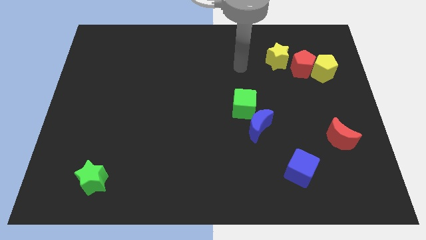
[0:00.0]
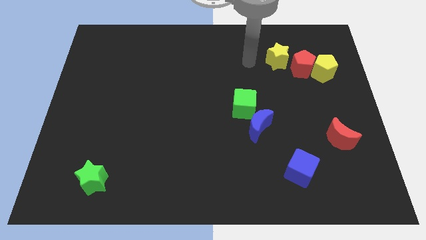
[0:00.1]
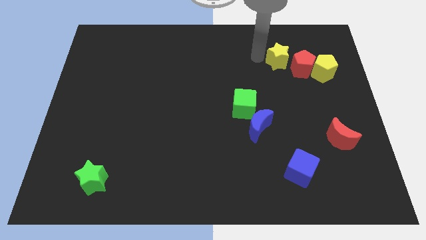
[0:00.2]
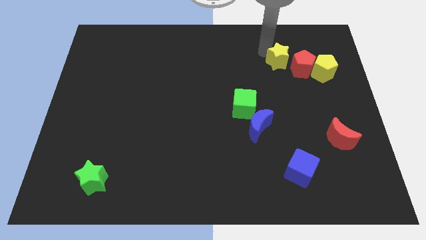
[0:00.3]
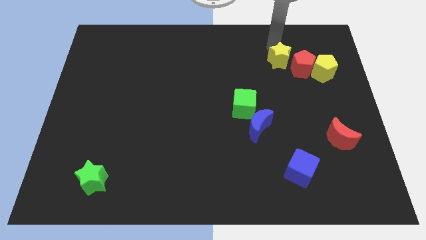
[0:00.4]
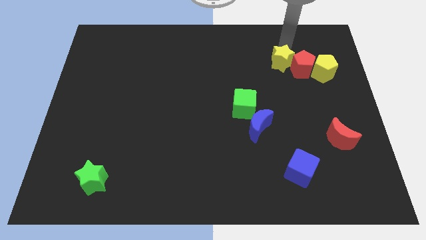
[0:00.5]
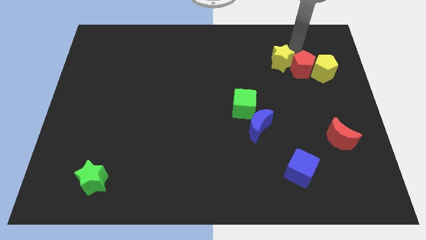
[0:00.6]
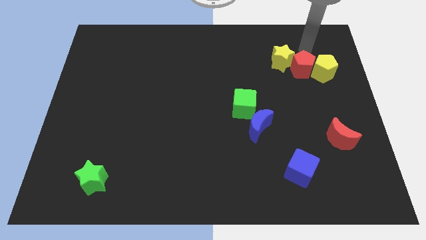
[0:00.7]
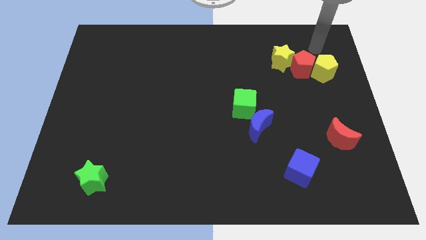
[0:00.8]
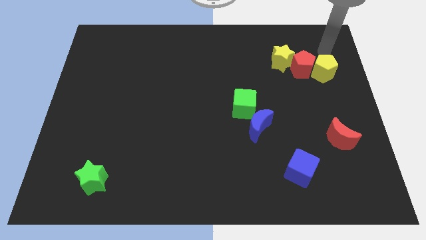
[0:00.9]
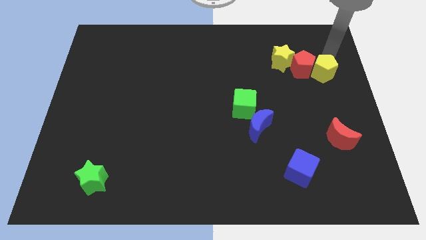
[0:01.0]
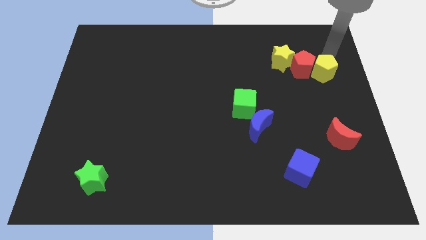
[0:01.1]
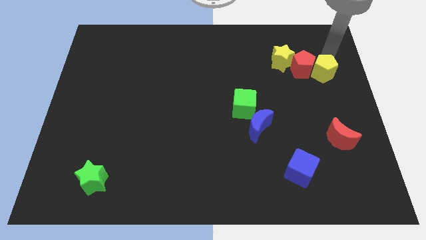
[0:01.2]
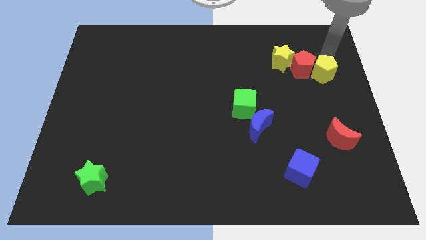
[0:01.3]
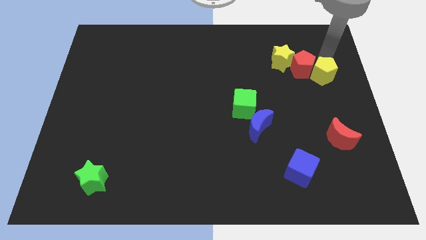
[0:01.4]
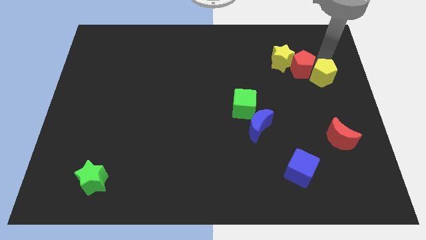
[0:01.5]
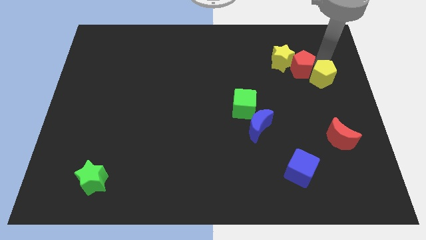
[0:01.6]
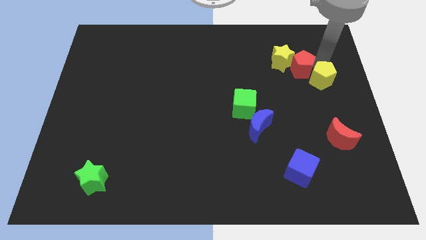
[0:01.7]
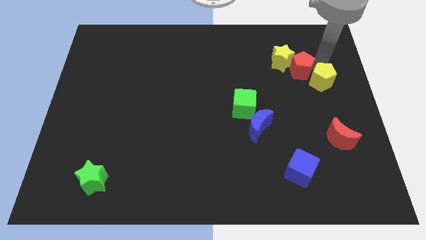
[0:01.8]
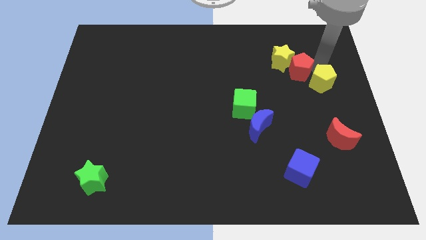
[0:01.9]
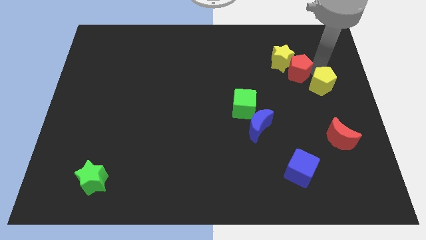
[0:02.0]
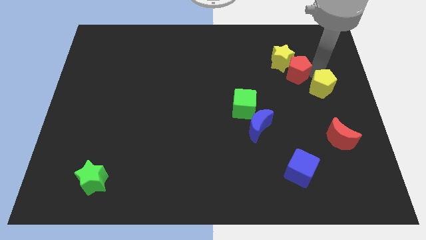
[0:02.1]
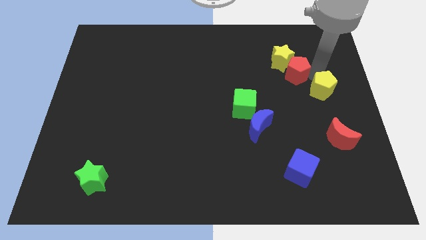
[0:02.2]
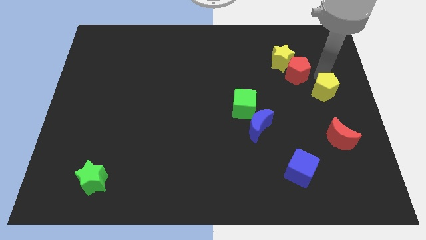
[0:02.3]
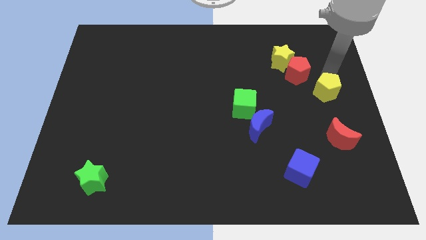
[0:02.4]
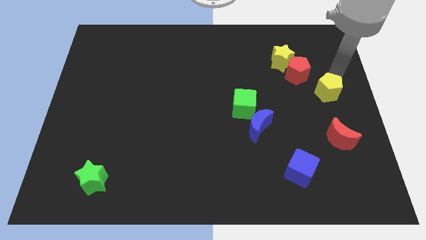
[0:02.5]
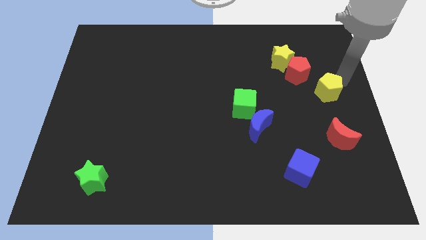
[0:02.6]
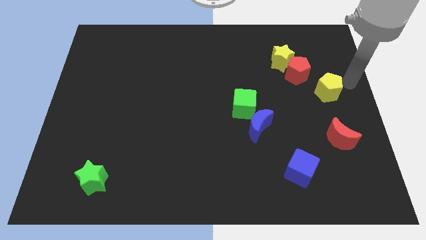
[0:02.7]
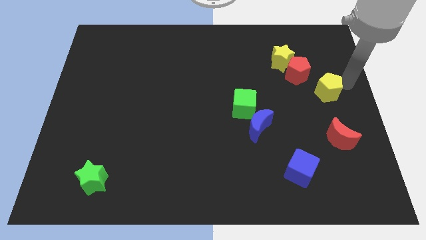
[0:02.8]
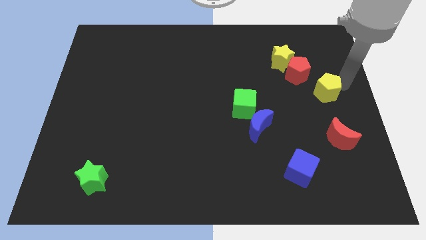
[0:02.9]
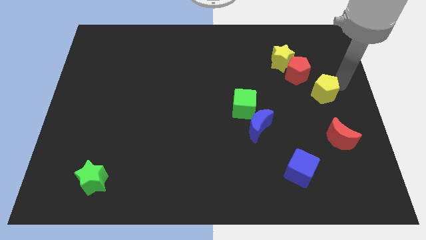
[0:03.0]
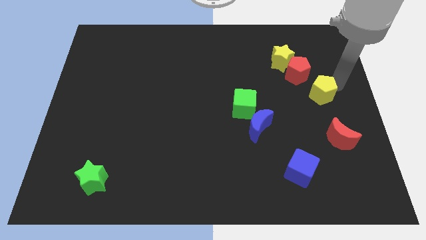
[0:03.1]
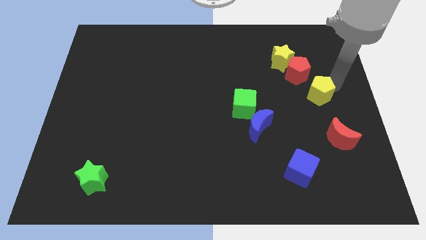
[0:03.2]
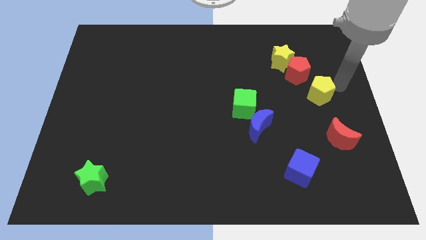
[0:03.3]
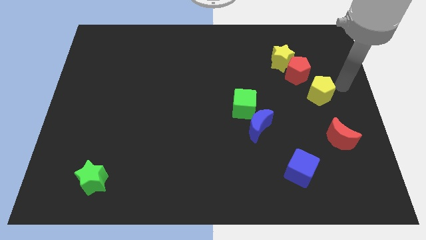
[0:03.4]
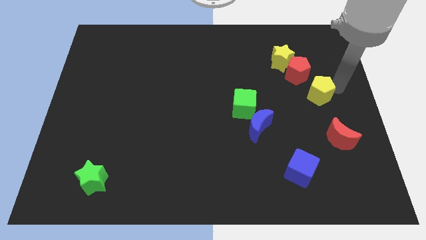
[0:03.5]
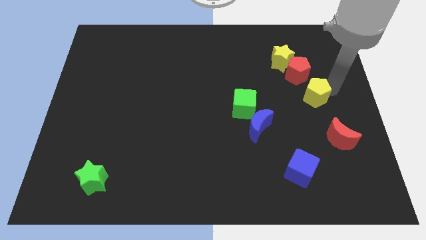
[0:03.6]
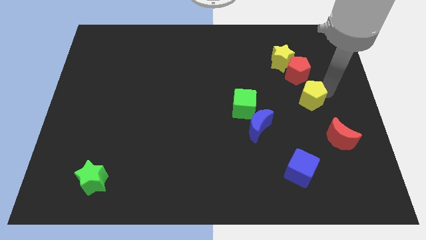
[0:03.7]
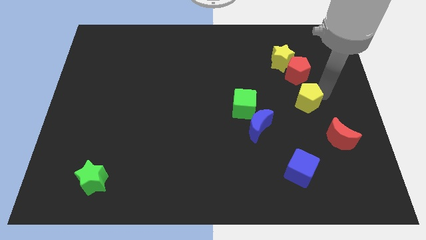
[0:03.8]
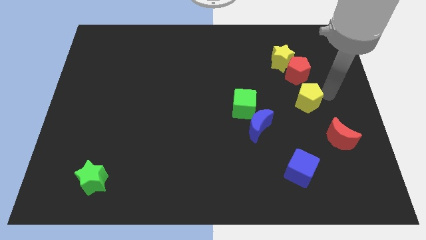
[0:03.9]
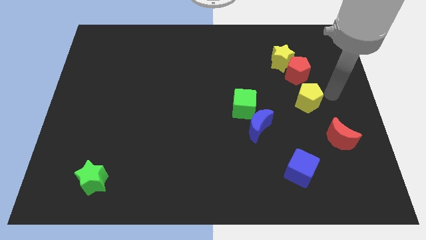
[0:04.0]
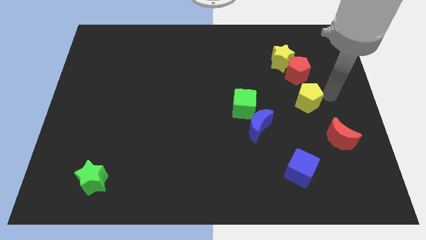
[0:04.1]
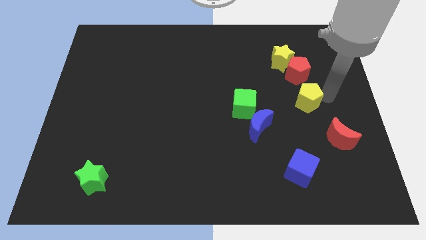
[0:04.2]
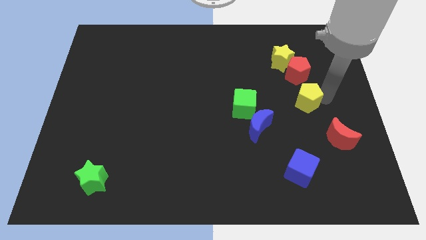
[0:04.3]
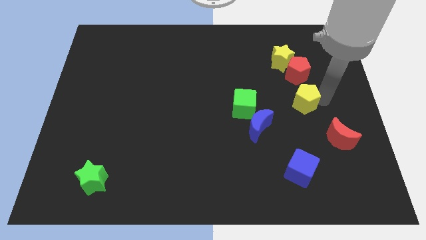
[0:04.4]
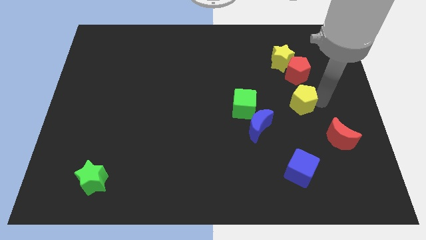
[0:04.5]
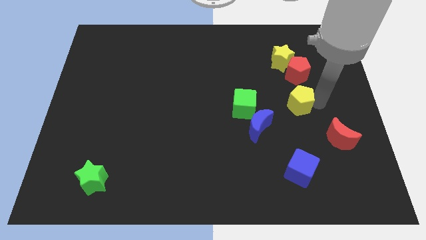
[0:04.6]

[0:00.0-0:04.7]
push the yellow pentagon to the top right side of the blue moon

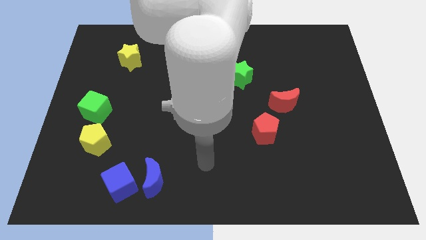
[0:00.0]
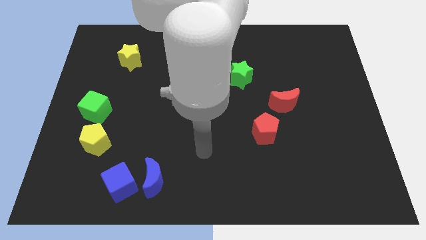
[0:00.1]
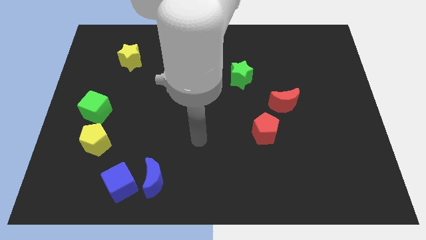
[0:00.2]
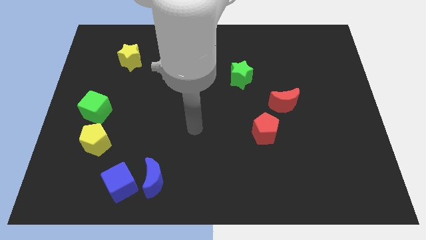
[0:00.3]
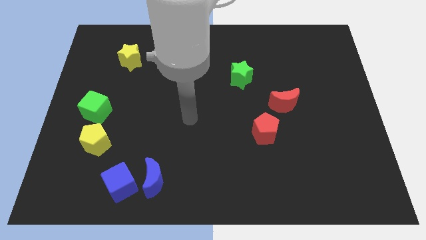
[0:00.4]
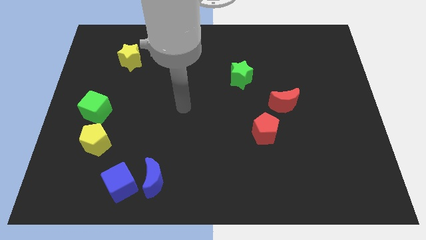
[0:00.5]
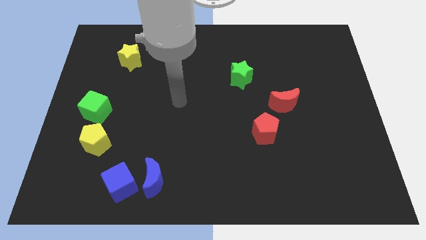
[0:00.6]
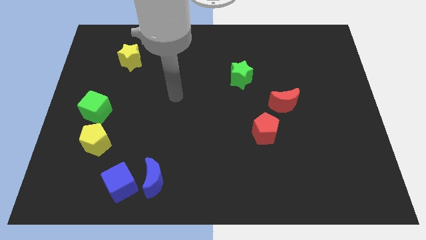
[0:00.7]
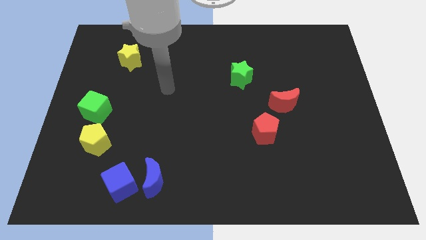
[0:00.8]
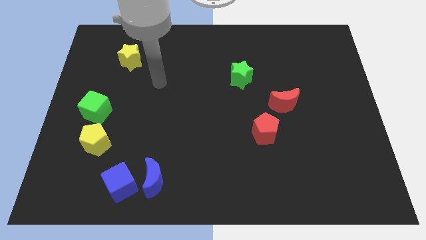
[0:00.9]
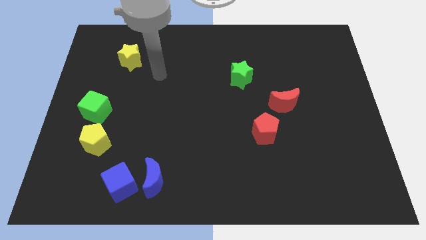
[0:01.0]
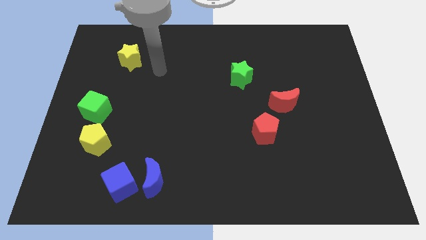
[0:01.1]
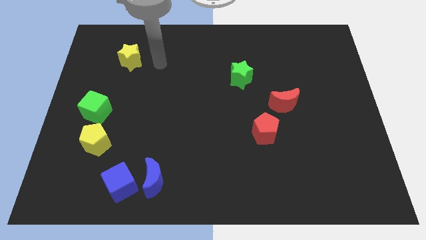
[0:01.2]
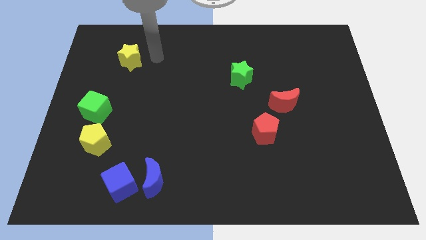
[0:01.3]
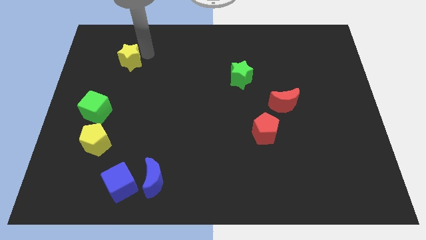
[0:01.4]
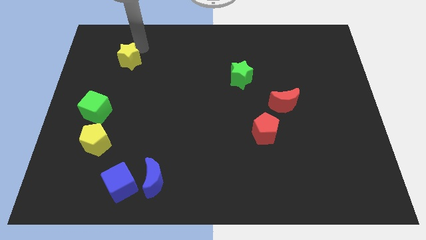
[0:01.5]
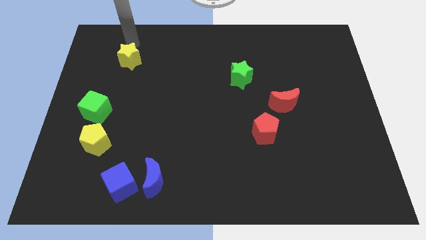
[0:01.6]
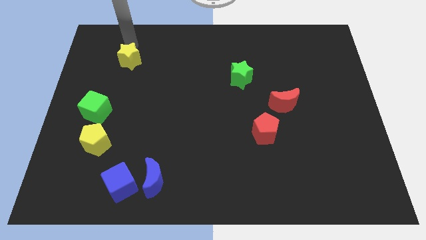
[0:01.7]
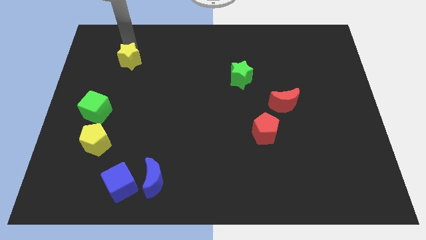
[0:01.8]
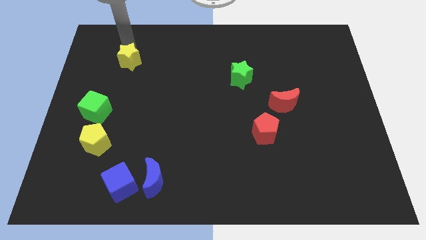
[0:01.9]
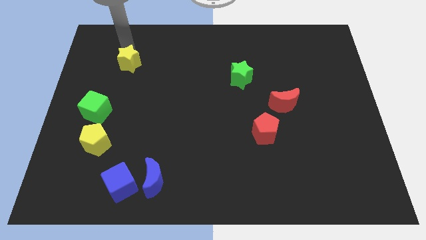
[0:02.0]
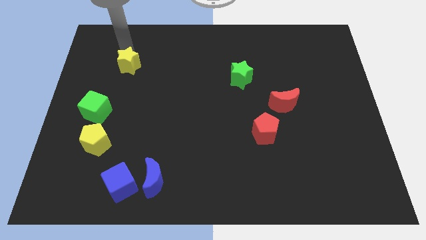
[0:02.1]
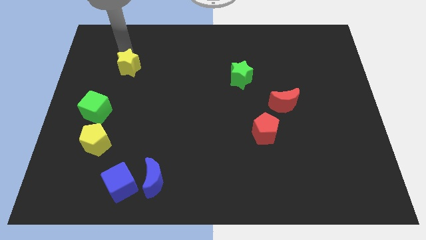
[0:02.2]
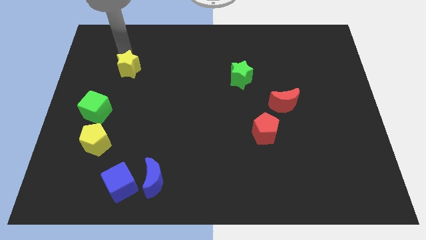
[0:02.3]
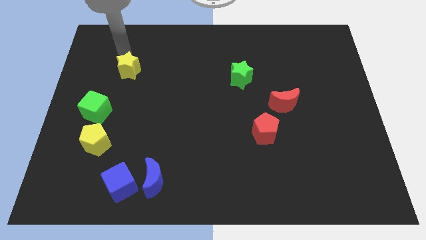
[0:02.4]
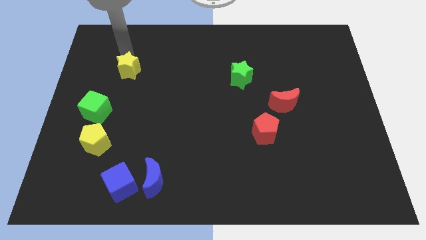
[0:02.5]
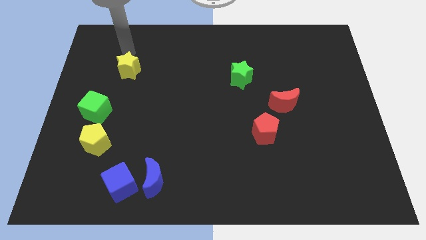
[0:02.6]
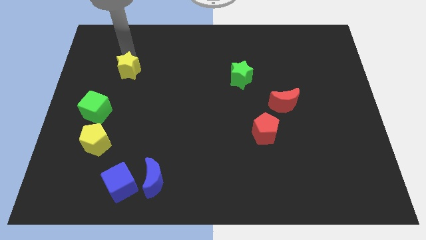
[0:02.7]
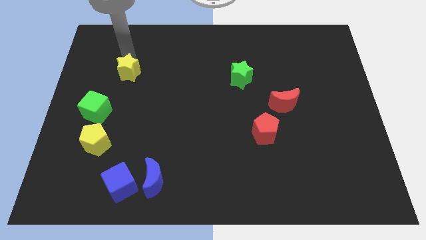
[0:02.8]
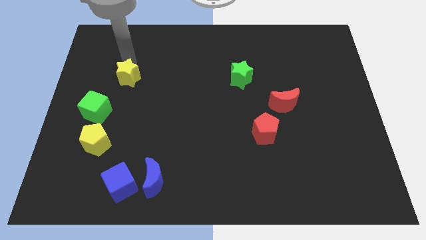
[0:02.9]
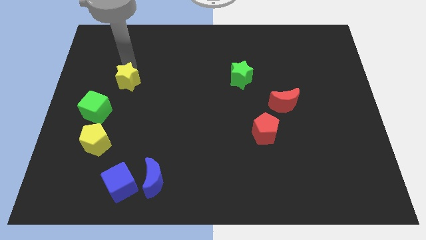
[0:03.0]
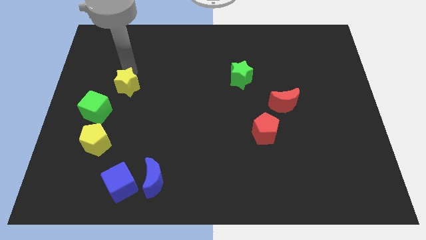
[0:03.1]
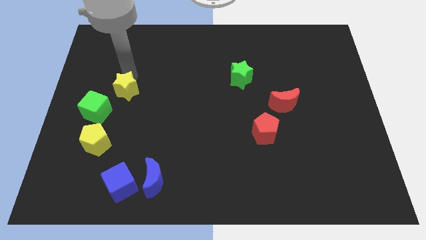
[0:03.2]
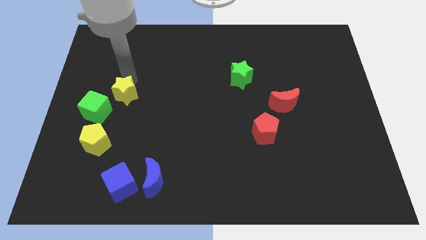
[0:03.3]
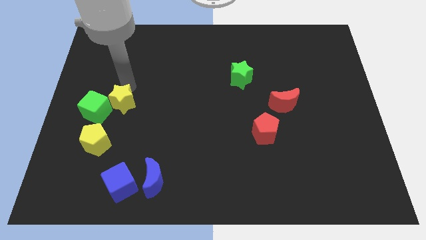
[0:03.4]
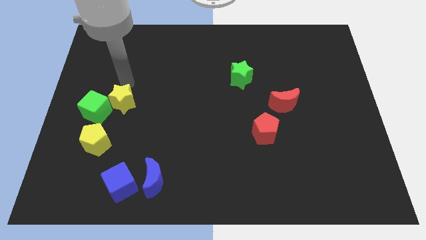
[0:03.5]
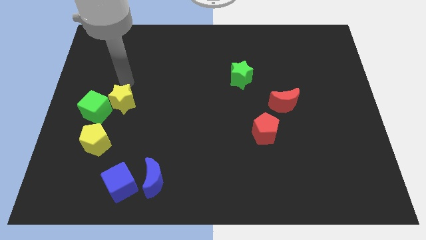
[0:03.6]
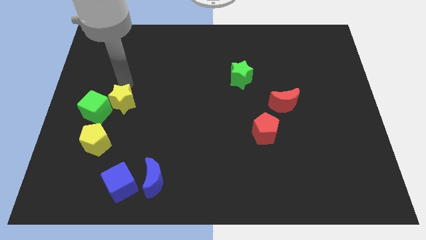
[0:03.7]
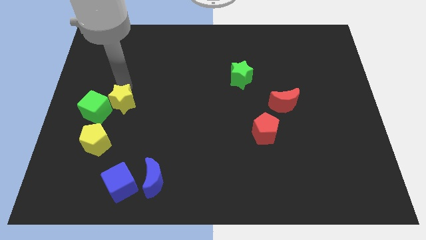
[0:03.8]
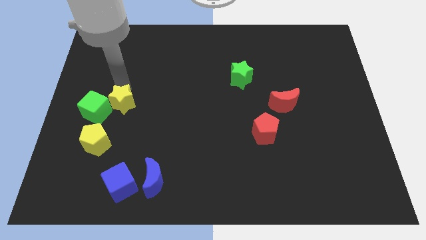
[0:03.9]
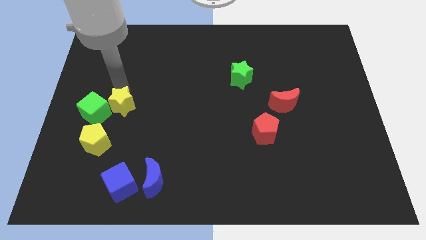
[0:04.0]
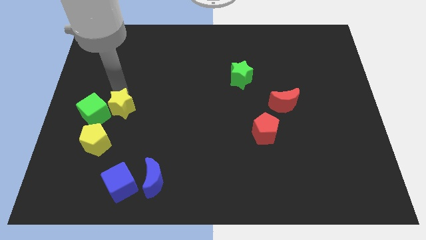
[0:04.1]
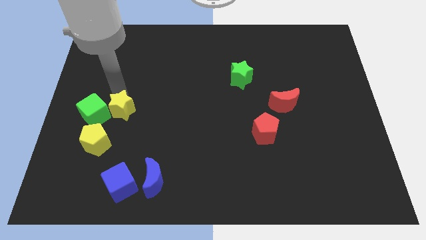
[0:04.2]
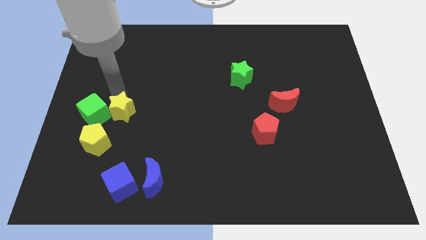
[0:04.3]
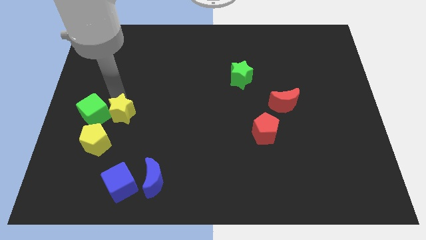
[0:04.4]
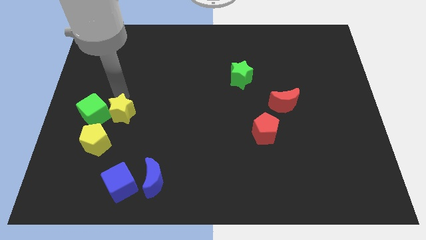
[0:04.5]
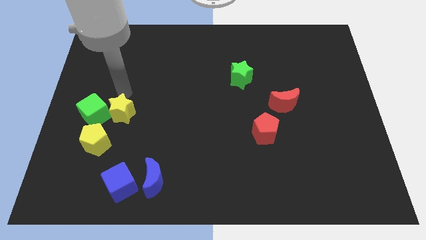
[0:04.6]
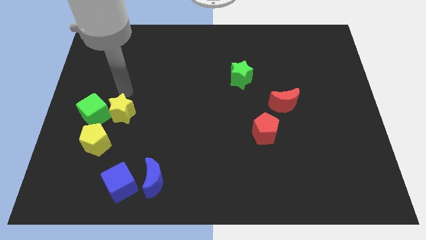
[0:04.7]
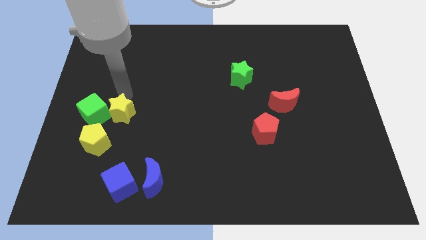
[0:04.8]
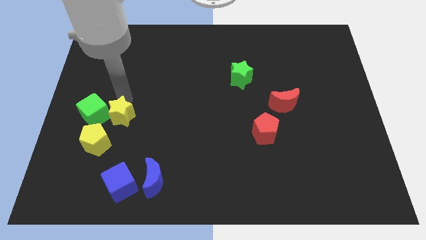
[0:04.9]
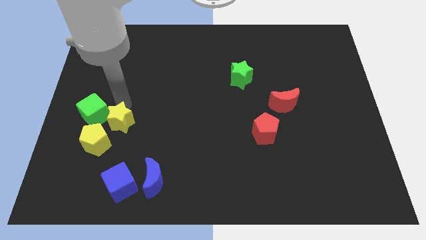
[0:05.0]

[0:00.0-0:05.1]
put the yellow star above the blue cube
